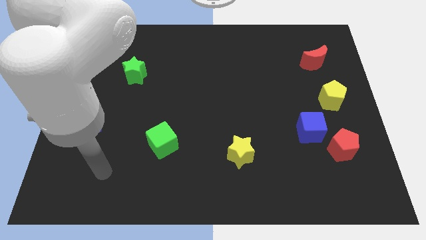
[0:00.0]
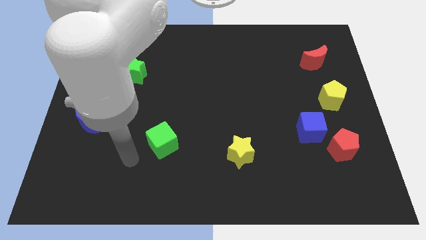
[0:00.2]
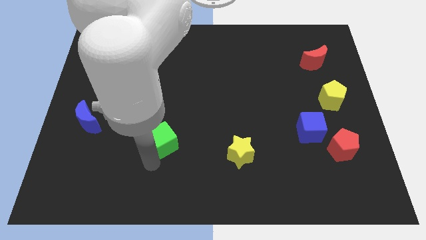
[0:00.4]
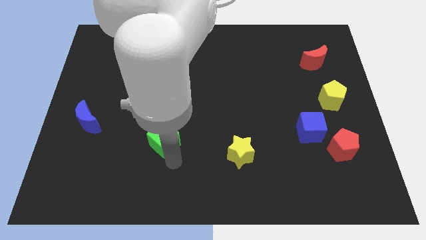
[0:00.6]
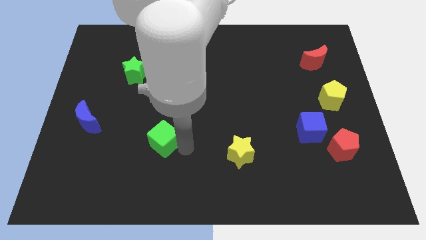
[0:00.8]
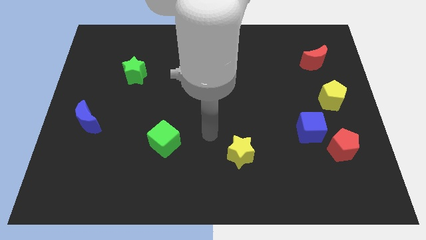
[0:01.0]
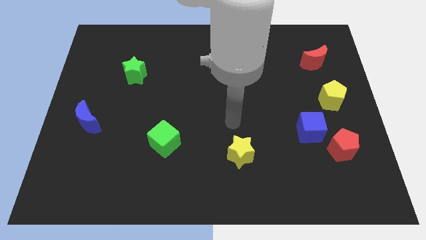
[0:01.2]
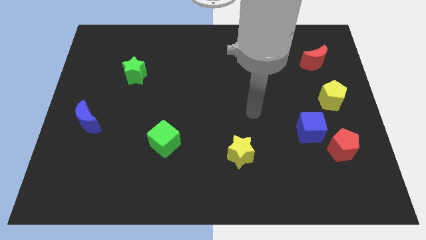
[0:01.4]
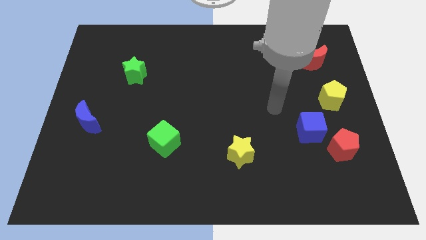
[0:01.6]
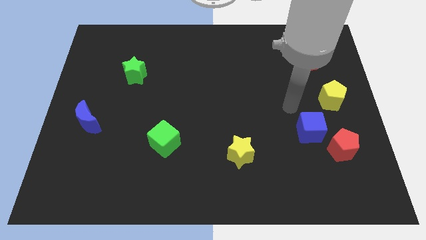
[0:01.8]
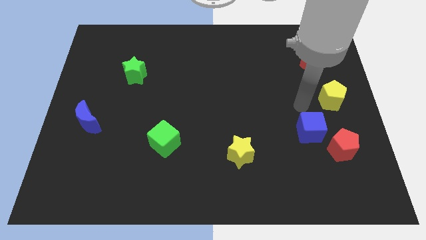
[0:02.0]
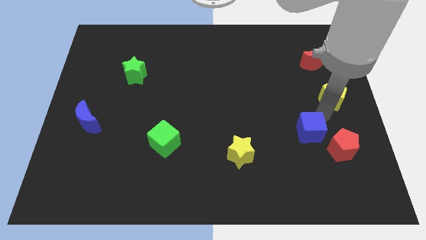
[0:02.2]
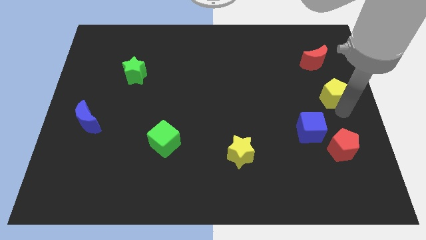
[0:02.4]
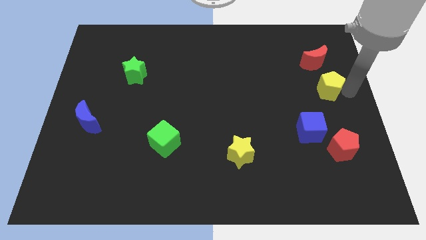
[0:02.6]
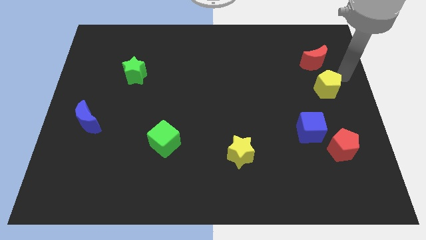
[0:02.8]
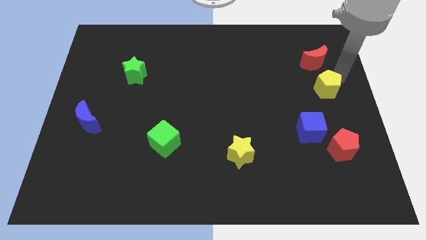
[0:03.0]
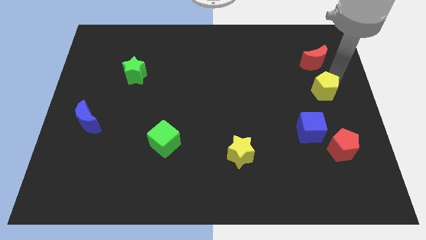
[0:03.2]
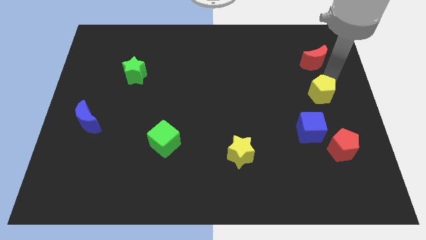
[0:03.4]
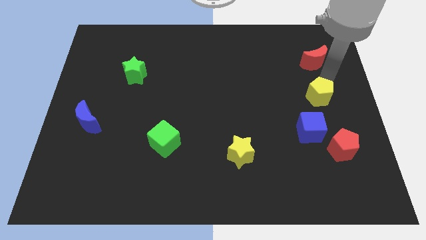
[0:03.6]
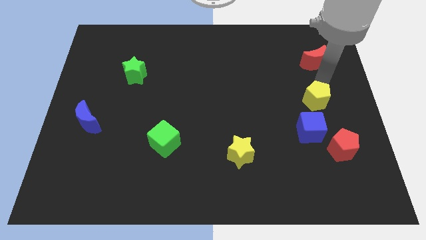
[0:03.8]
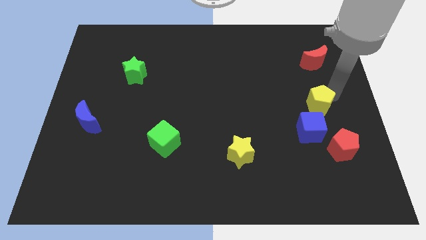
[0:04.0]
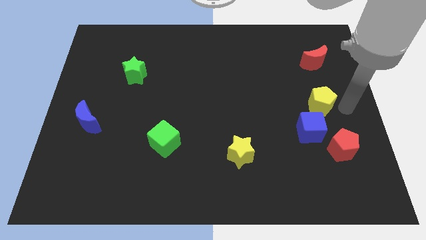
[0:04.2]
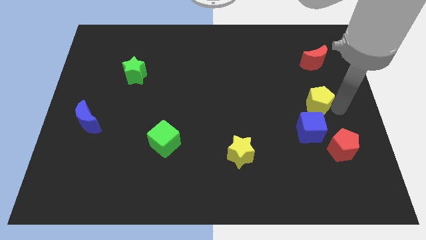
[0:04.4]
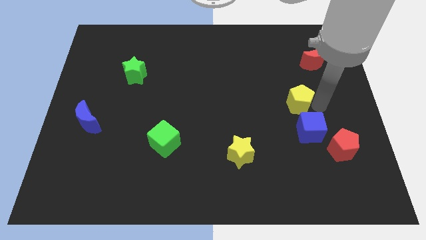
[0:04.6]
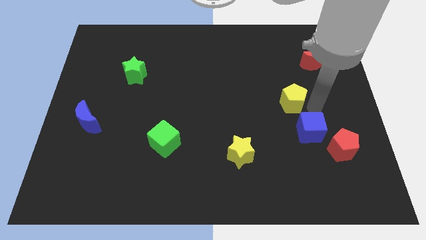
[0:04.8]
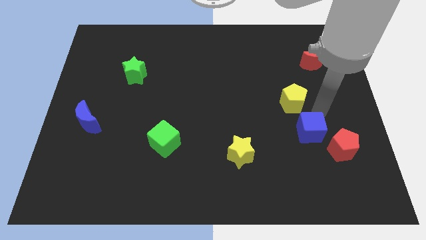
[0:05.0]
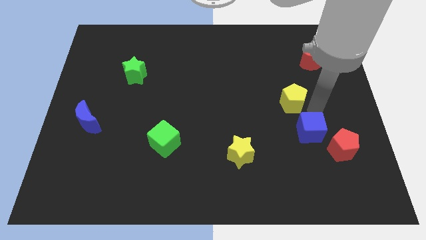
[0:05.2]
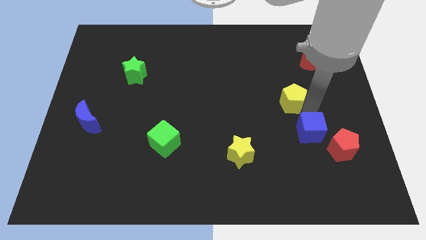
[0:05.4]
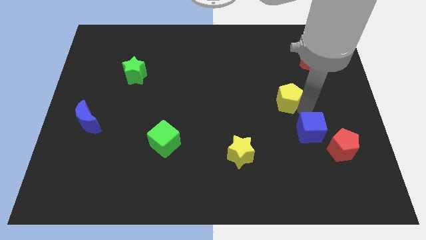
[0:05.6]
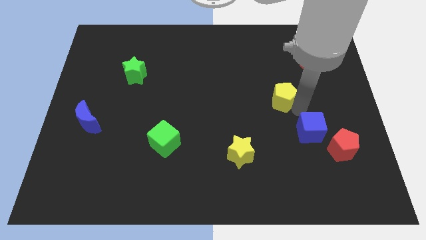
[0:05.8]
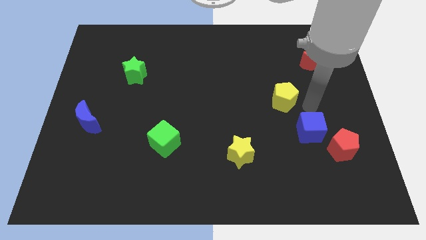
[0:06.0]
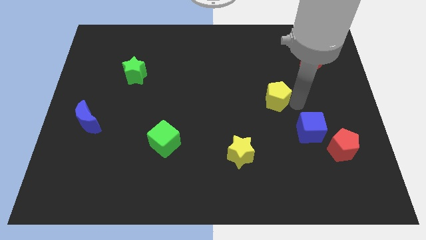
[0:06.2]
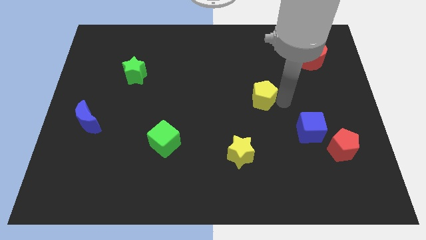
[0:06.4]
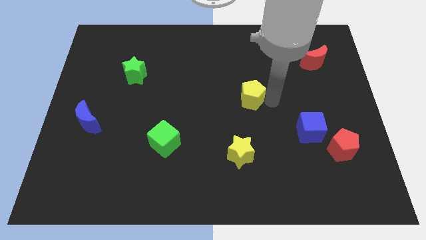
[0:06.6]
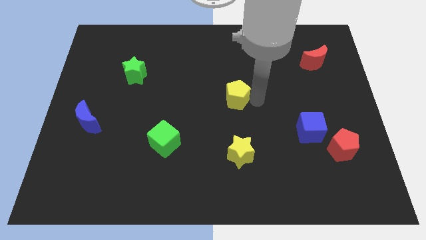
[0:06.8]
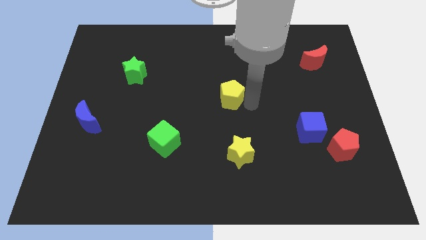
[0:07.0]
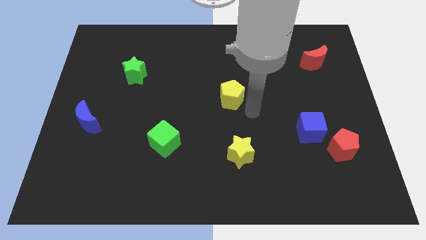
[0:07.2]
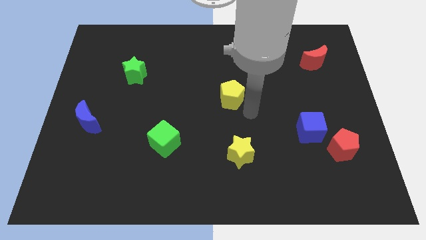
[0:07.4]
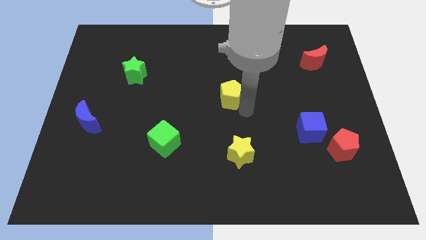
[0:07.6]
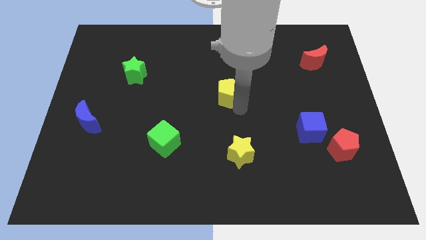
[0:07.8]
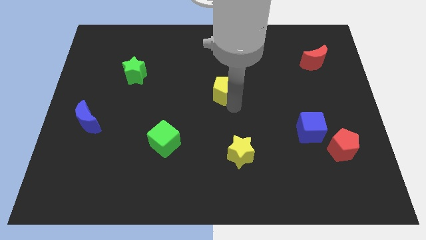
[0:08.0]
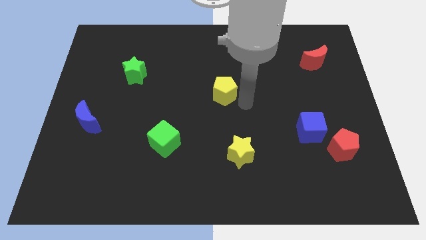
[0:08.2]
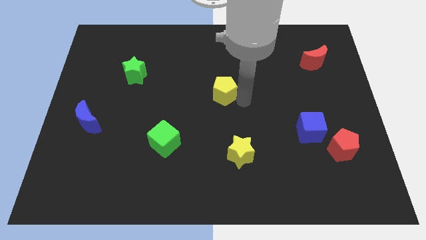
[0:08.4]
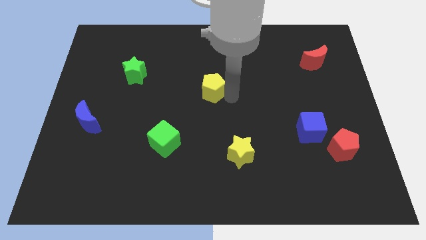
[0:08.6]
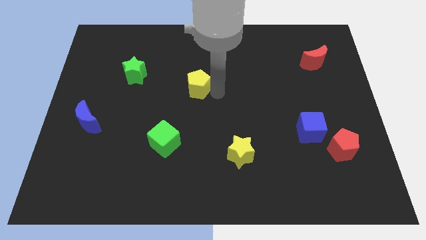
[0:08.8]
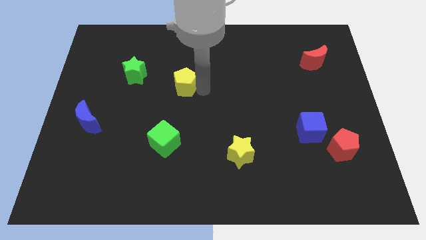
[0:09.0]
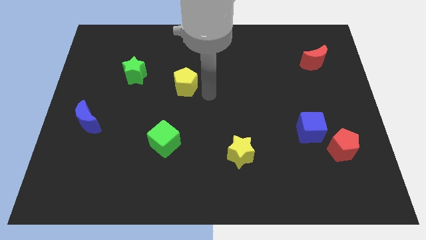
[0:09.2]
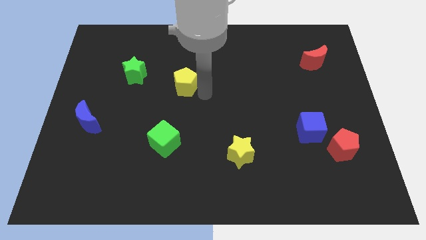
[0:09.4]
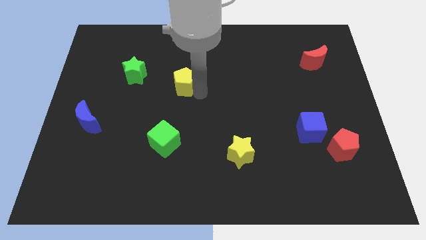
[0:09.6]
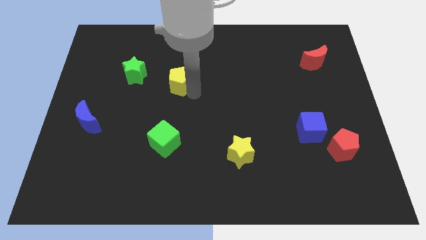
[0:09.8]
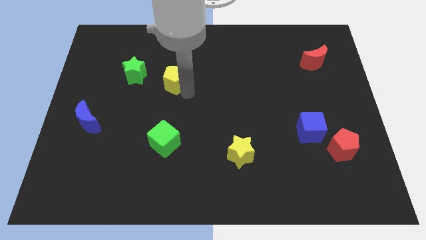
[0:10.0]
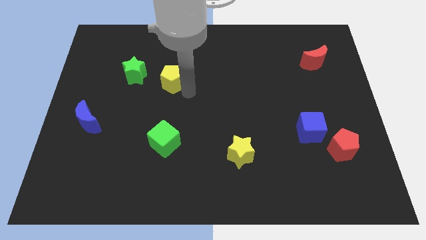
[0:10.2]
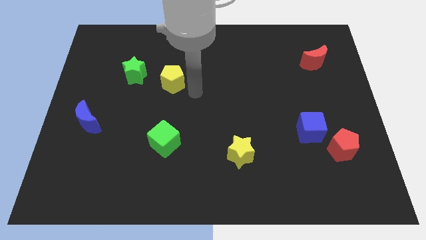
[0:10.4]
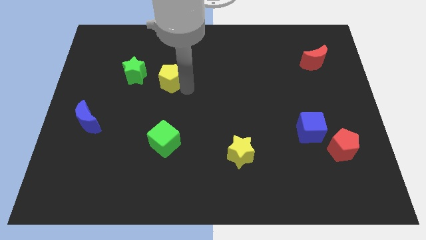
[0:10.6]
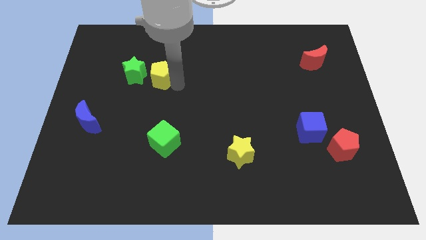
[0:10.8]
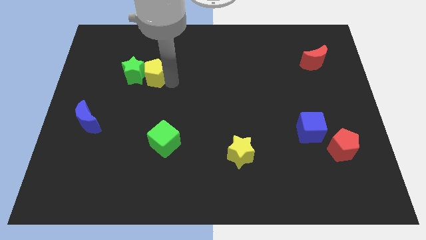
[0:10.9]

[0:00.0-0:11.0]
slide the yellow pentagon to the green star

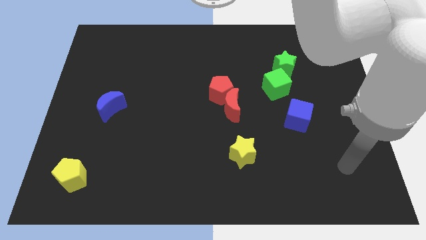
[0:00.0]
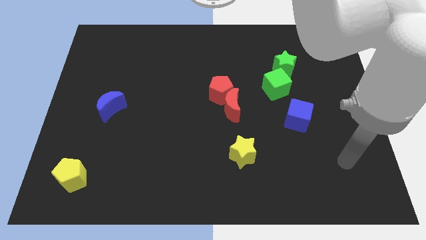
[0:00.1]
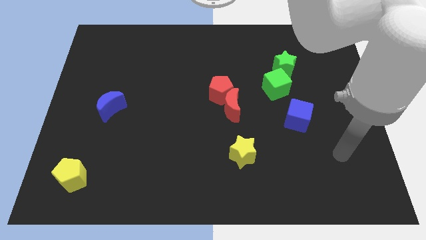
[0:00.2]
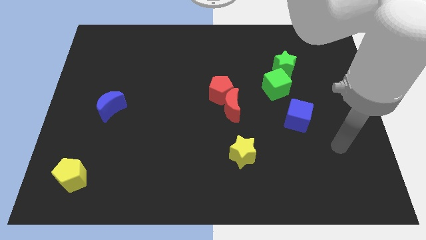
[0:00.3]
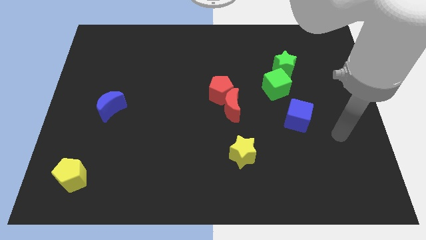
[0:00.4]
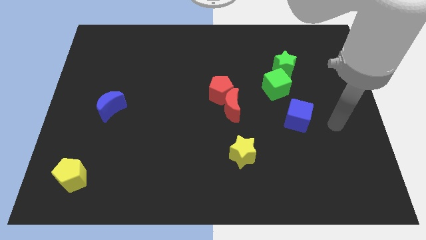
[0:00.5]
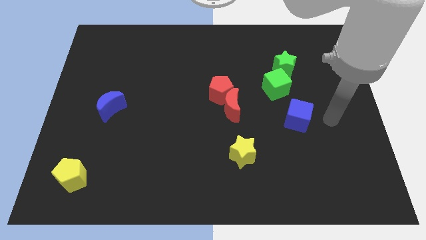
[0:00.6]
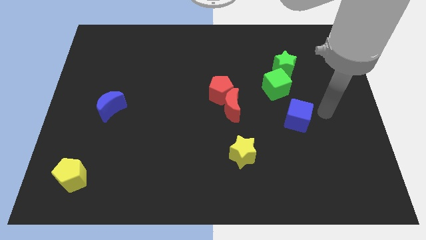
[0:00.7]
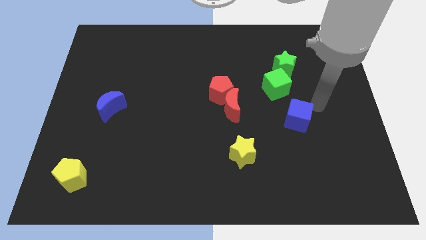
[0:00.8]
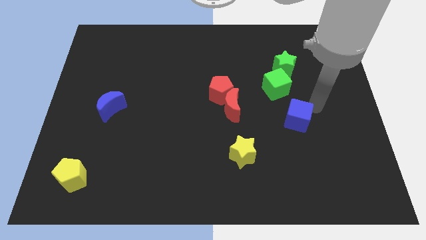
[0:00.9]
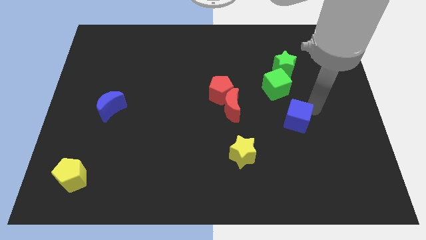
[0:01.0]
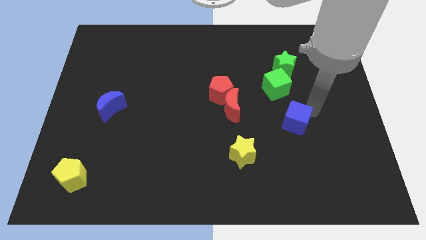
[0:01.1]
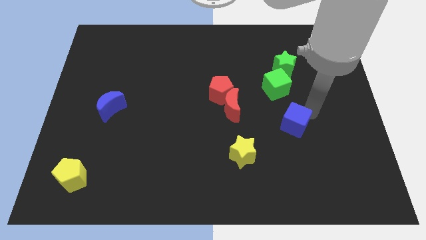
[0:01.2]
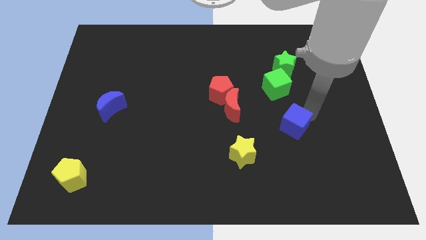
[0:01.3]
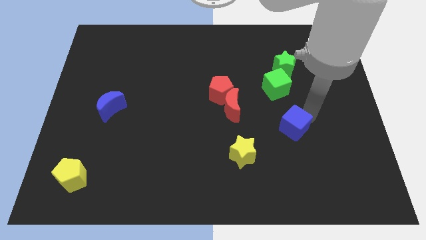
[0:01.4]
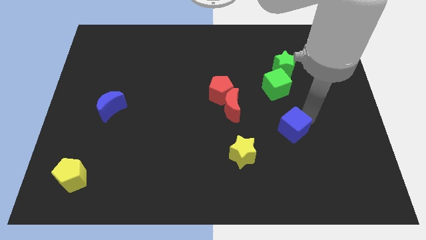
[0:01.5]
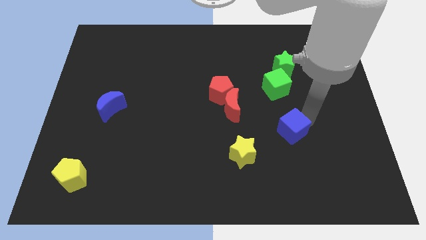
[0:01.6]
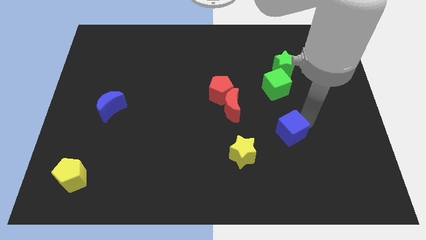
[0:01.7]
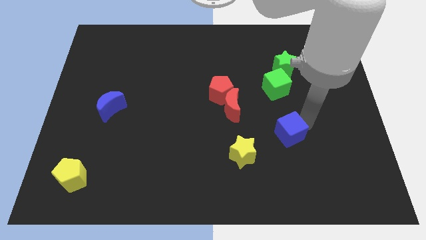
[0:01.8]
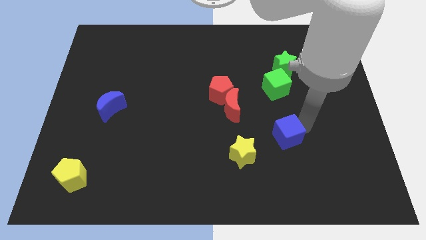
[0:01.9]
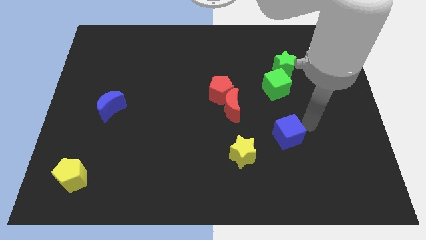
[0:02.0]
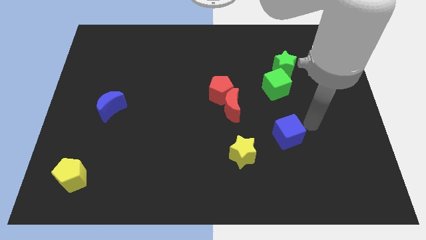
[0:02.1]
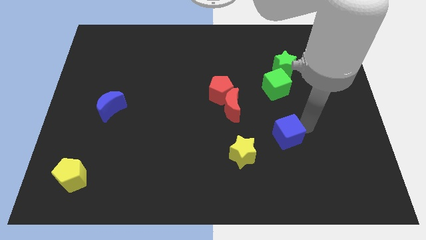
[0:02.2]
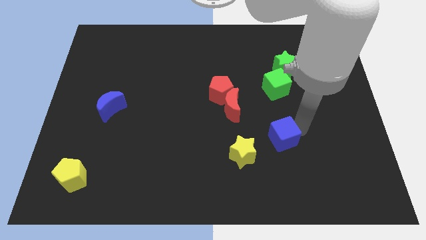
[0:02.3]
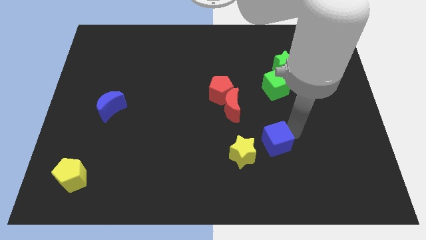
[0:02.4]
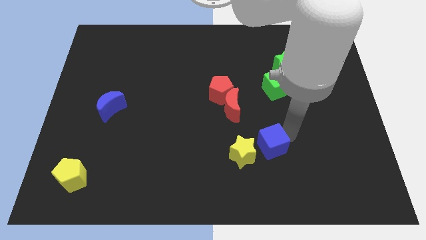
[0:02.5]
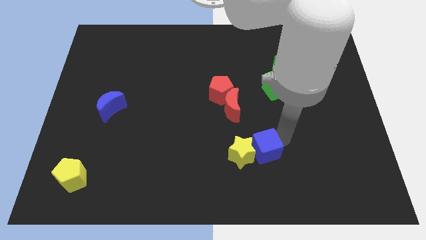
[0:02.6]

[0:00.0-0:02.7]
push the blue cube to the yellow star
